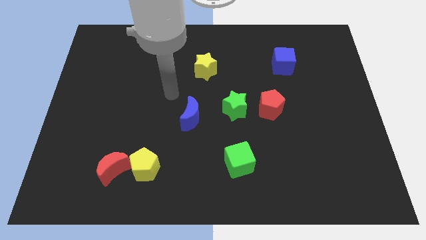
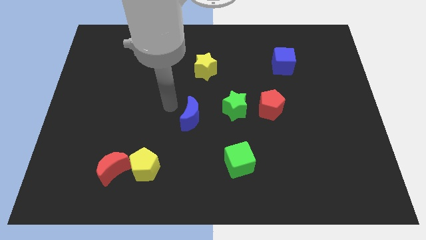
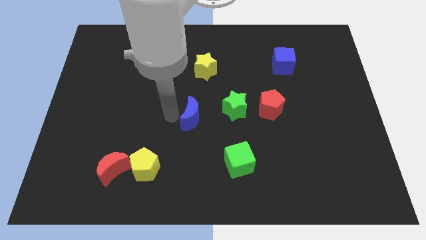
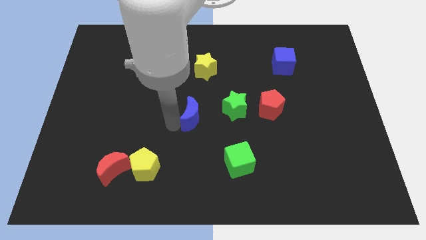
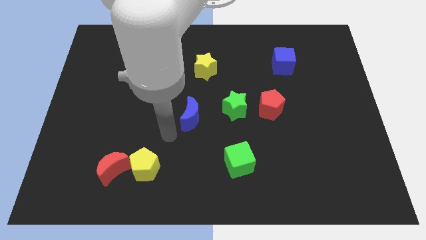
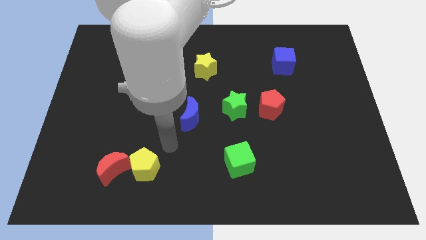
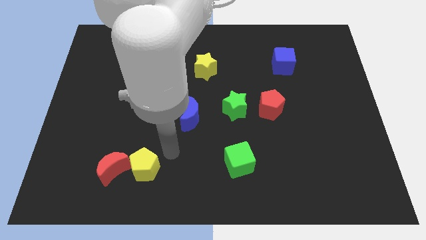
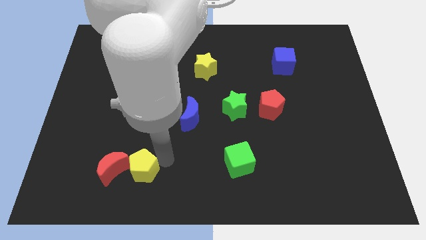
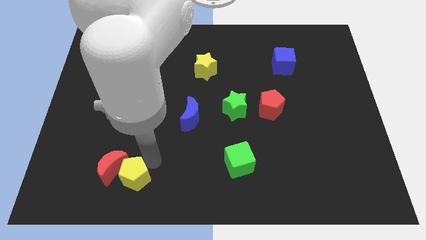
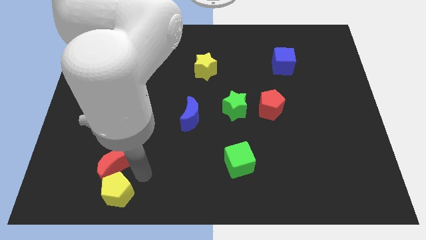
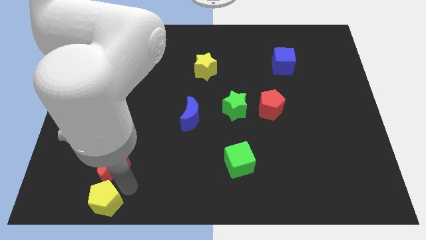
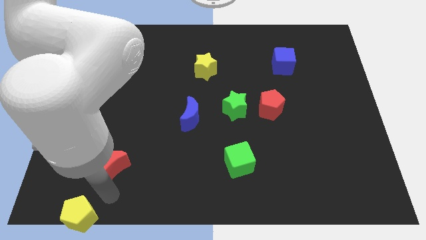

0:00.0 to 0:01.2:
move the red moon away from the yellow pentagon

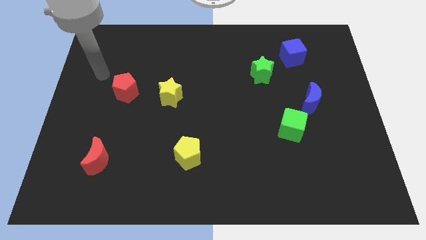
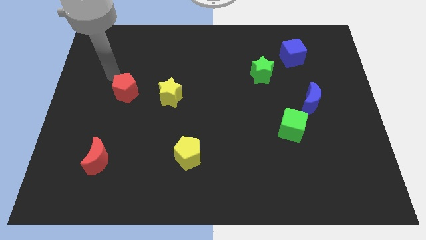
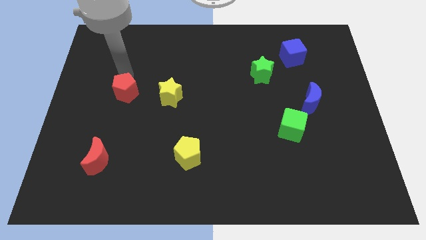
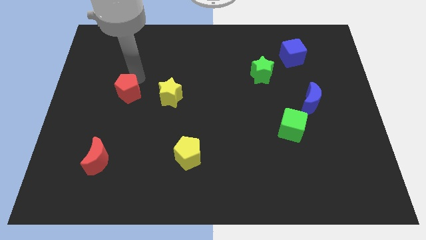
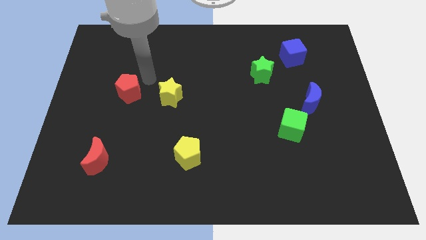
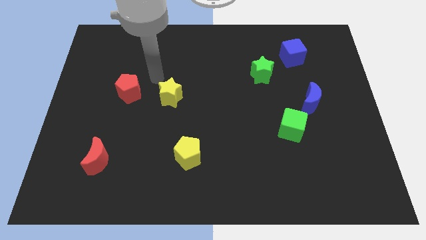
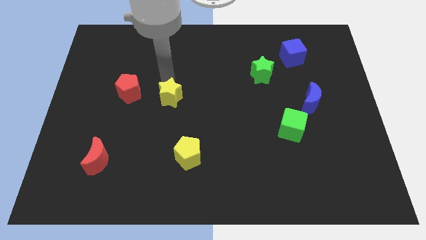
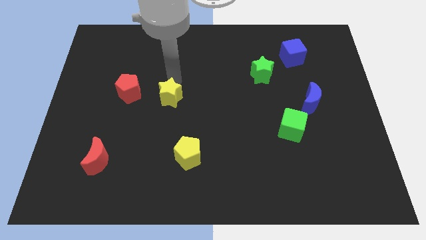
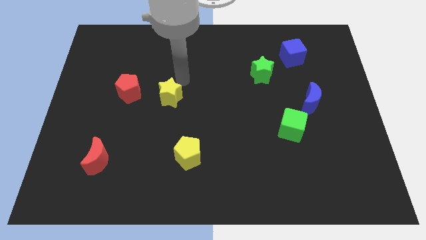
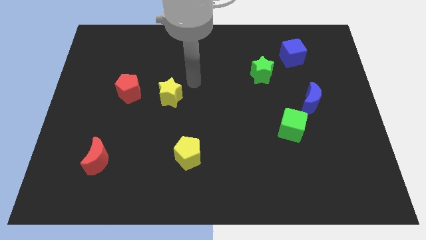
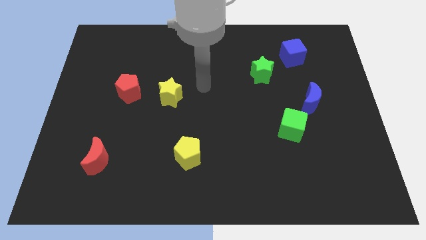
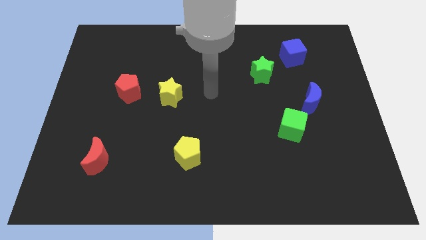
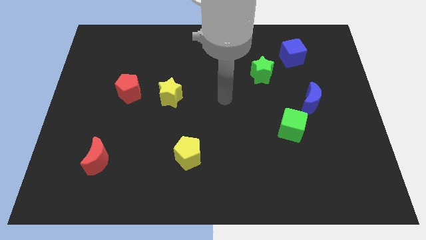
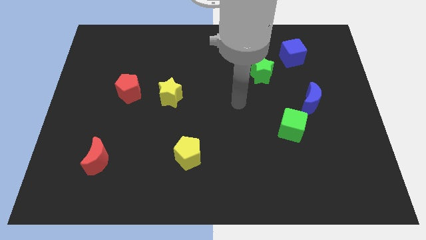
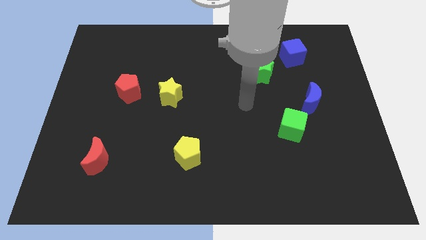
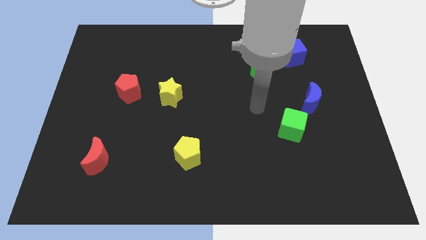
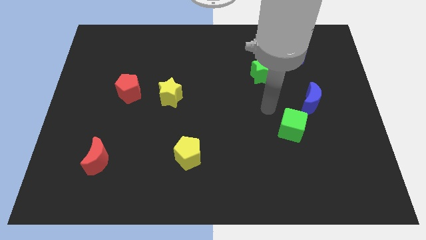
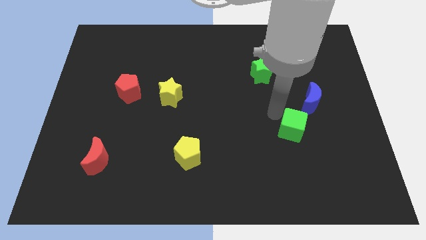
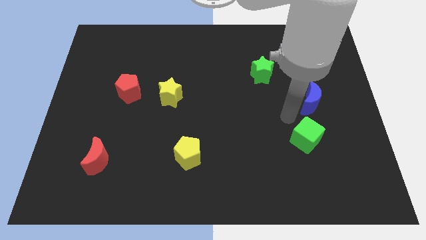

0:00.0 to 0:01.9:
pull the blue moon apart from the green cube

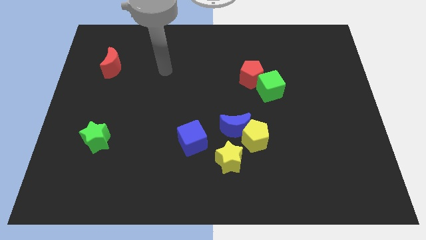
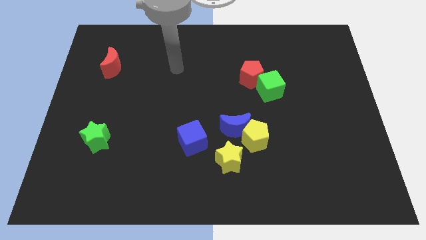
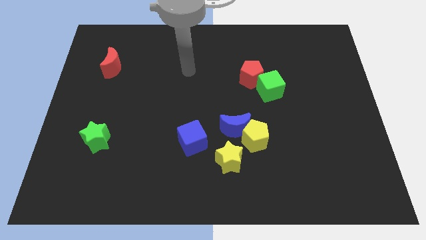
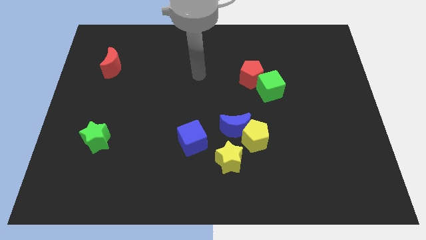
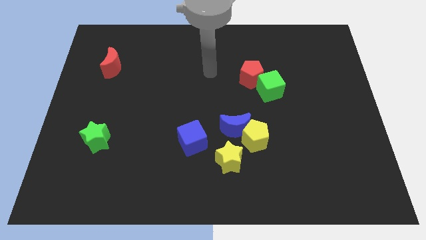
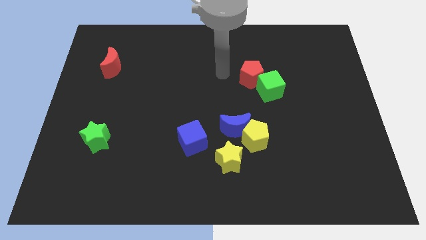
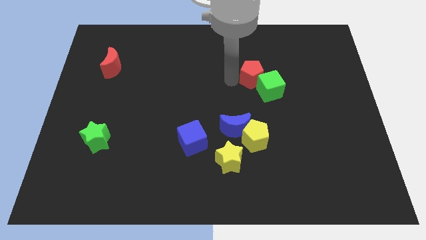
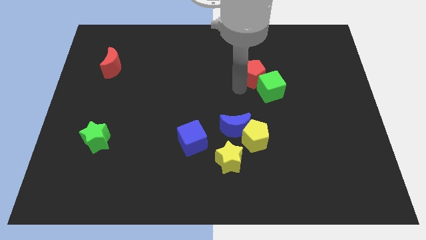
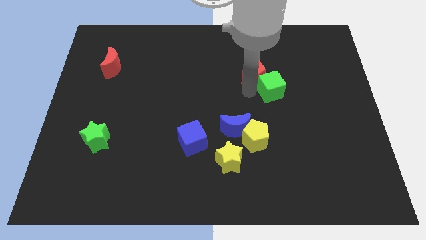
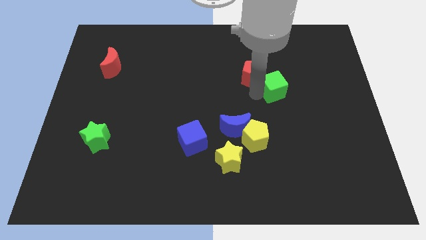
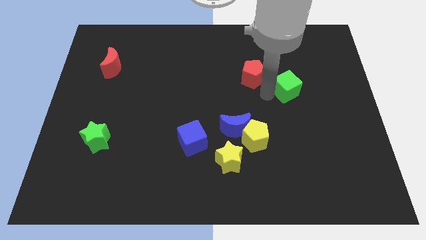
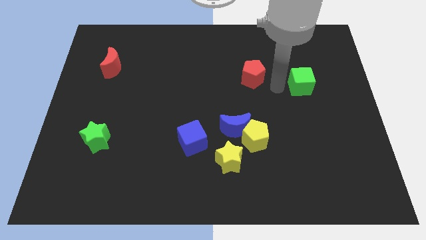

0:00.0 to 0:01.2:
move the red pentagon away from the green cube

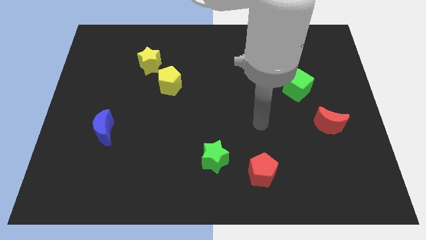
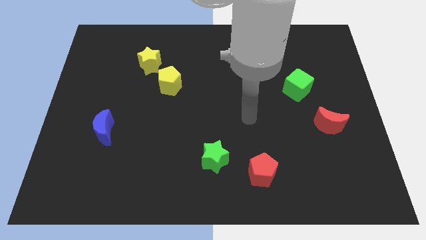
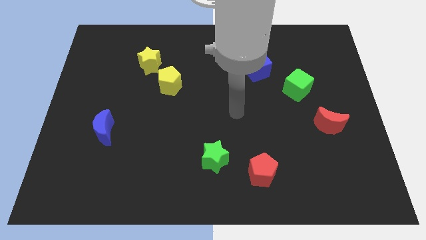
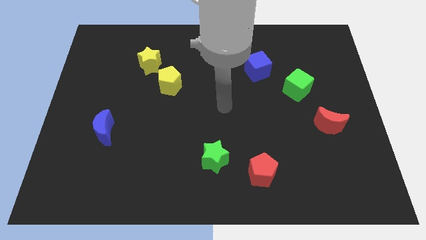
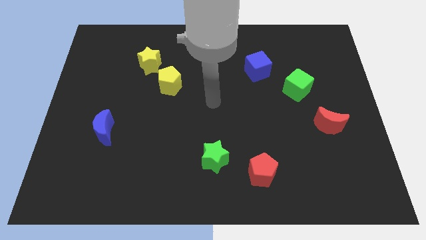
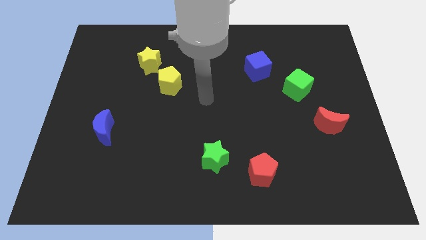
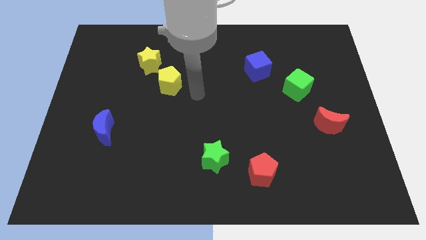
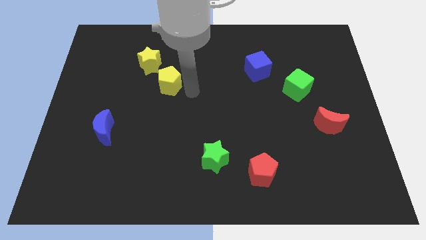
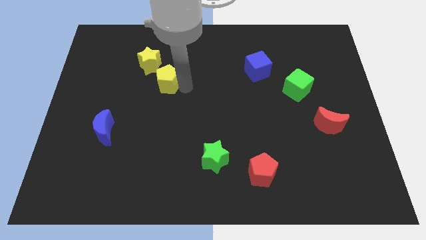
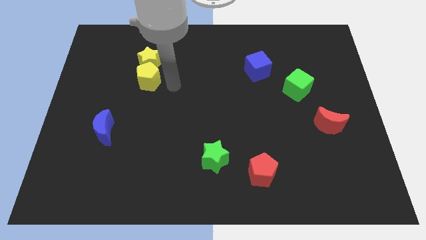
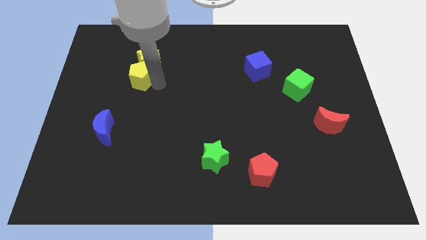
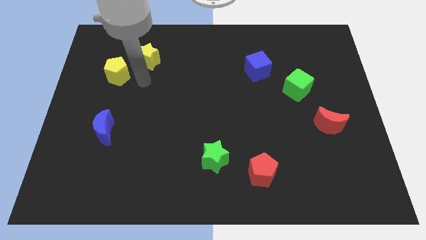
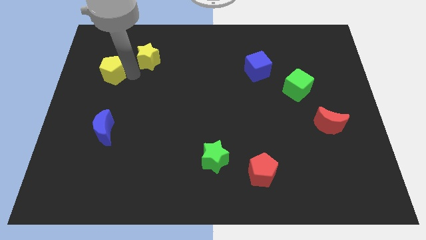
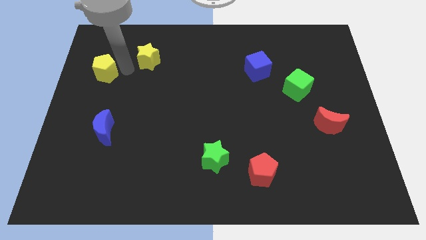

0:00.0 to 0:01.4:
move the yellow star away from the yellow pentagon

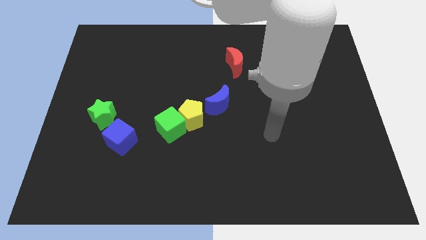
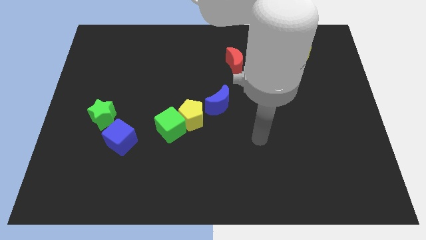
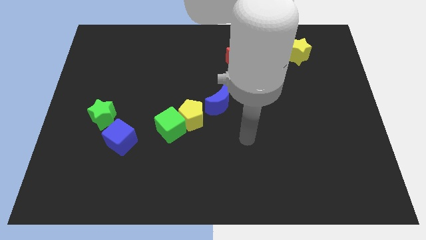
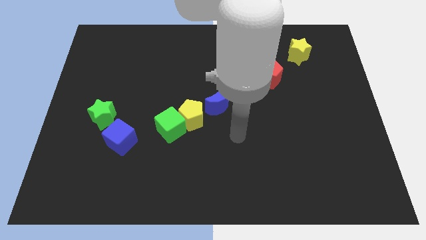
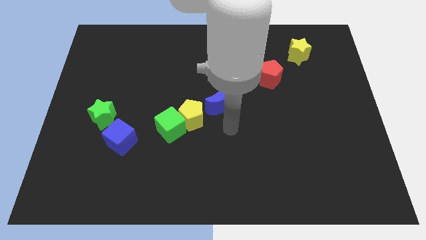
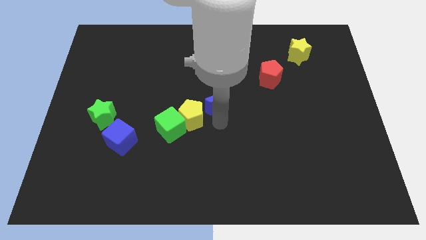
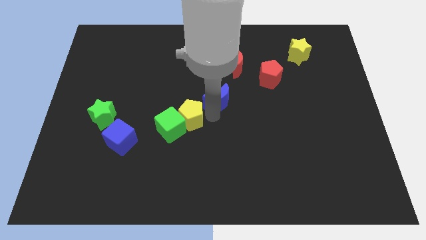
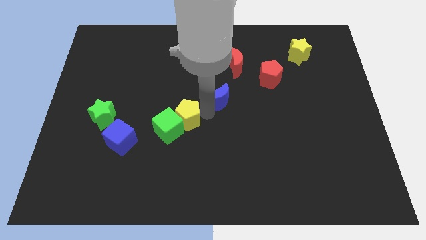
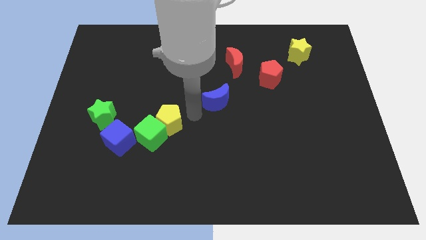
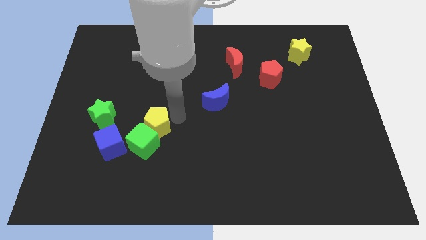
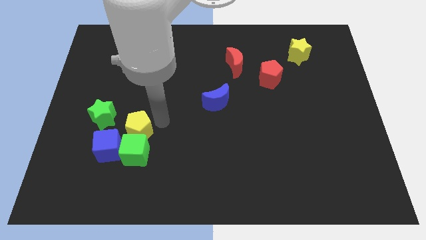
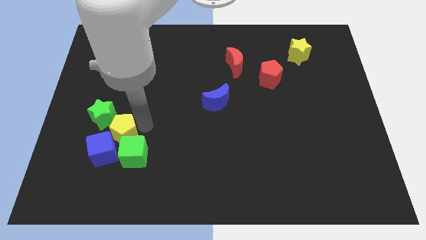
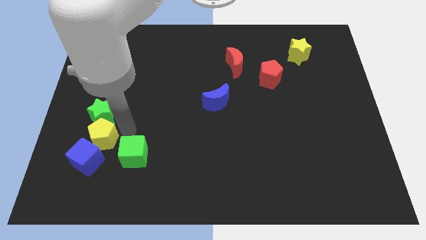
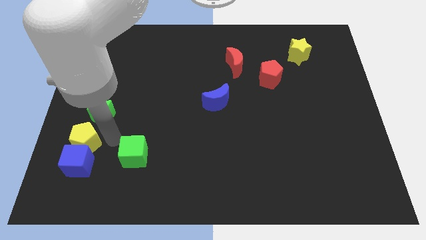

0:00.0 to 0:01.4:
pull the green cube apart from the yellow pentagon

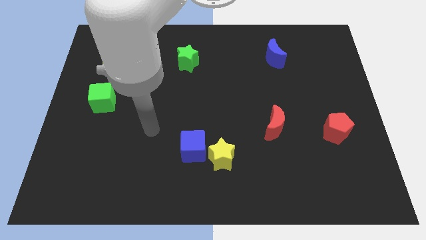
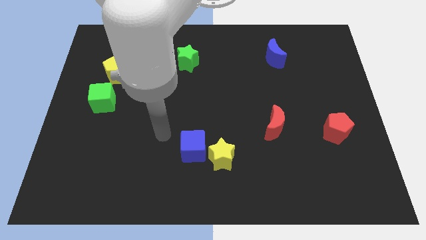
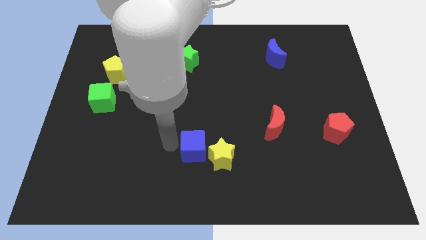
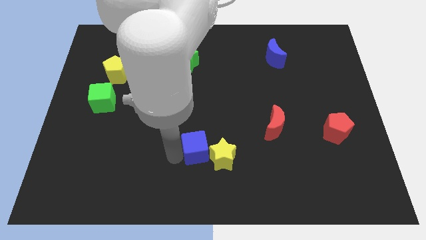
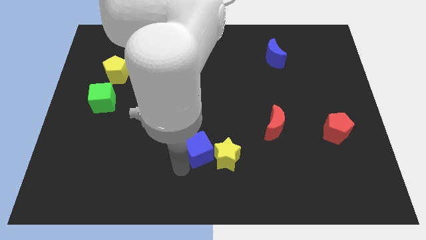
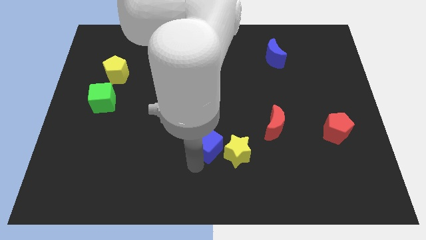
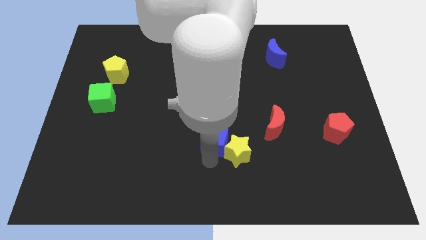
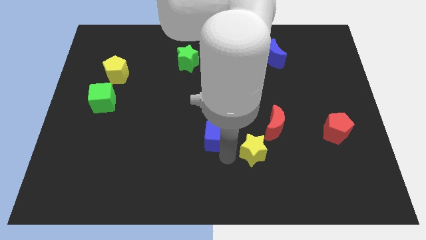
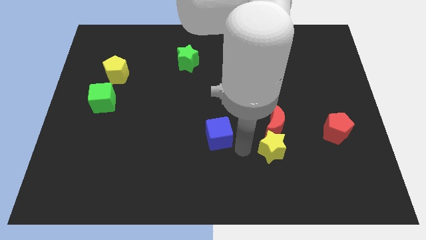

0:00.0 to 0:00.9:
separate the blue cube from the yellow star

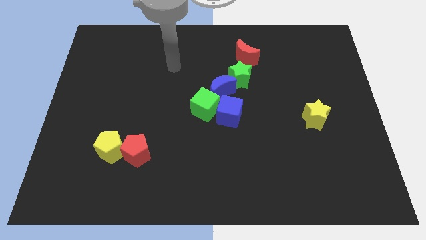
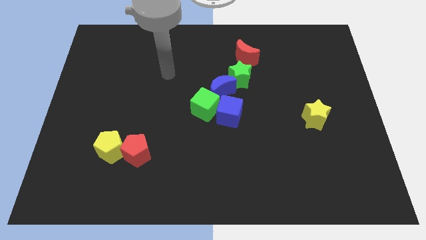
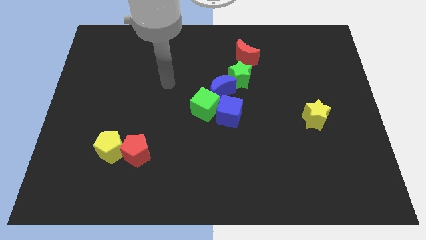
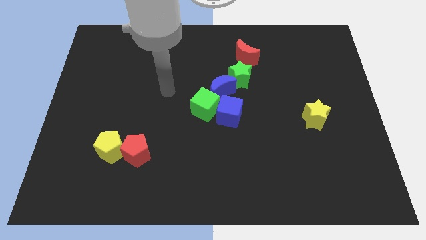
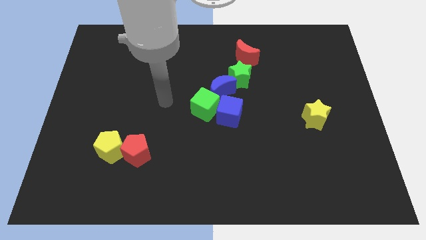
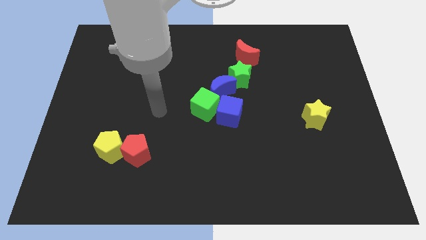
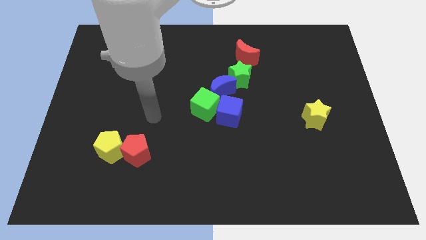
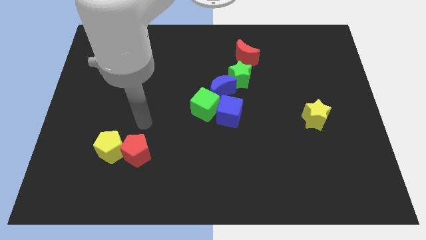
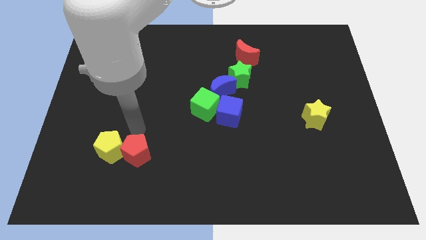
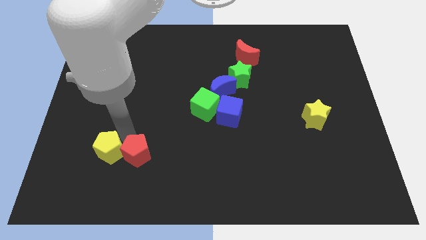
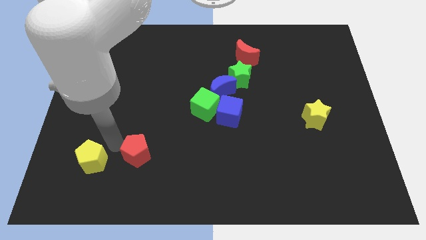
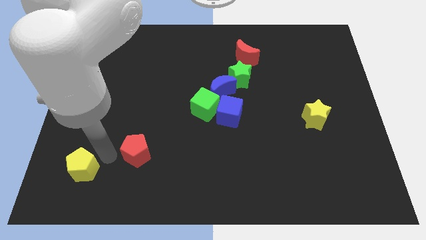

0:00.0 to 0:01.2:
pull the red pentagon apart from the yellow pentagon
